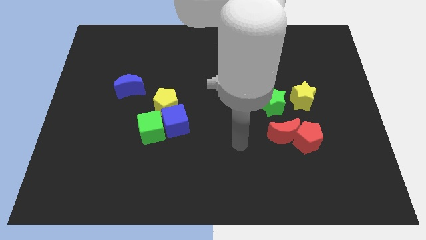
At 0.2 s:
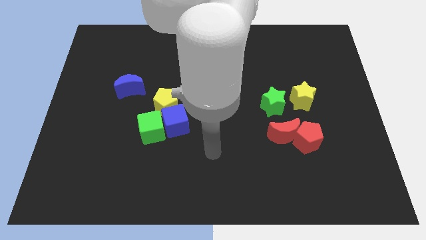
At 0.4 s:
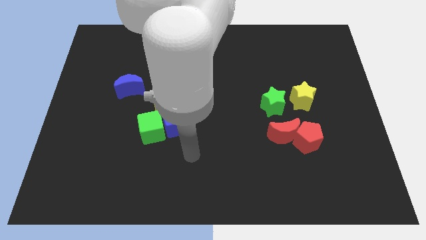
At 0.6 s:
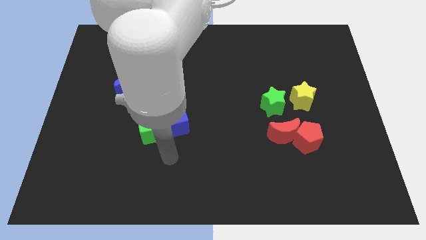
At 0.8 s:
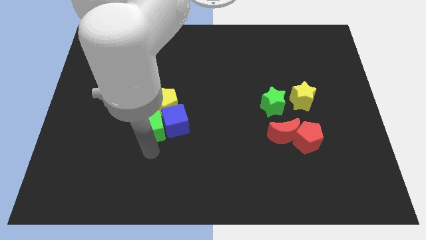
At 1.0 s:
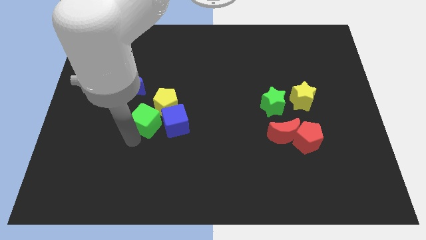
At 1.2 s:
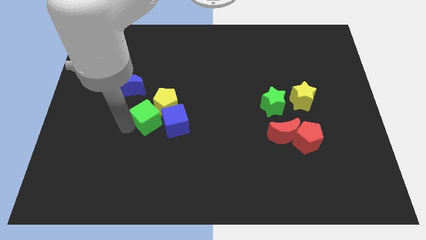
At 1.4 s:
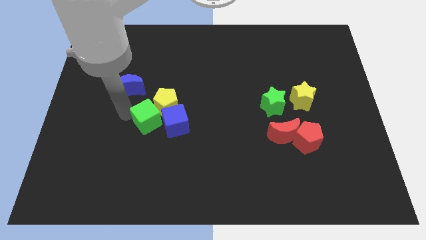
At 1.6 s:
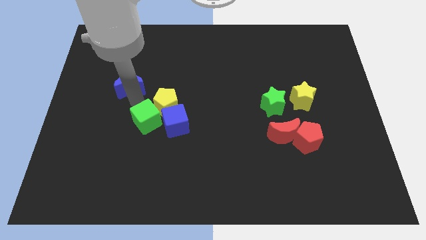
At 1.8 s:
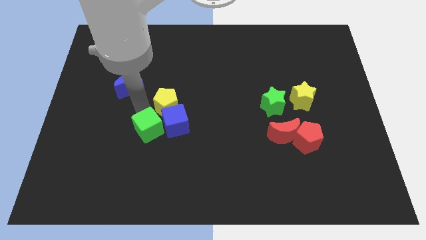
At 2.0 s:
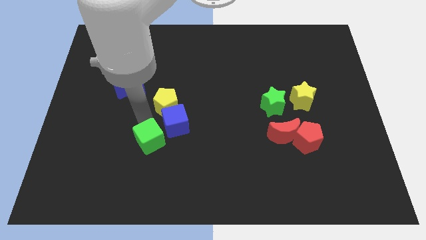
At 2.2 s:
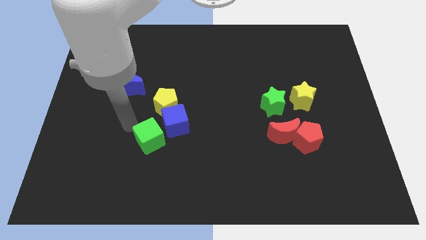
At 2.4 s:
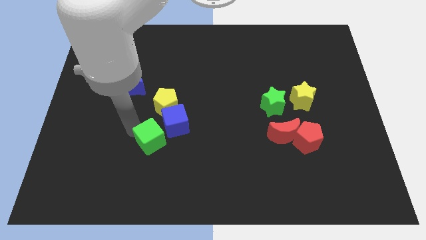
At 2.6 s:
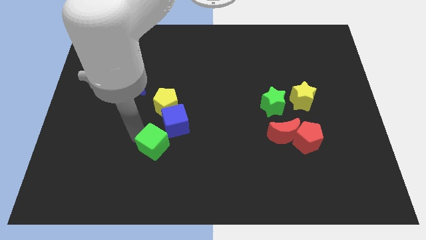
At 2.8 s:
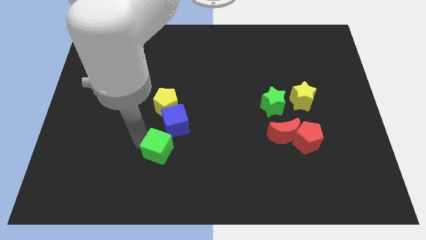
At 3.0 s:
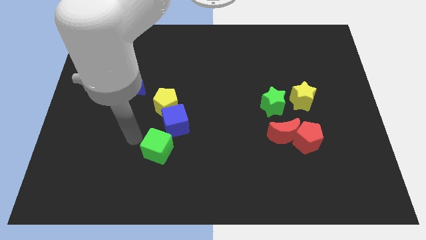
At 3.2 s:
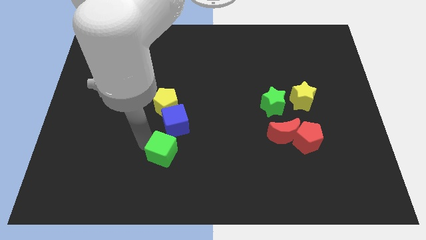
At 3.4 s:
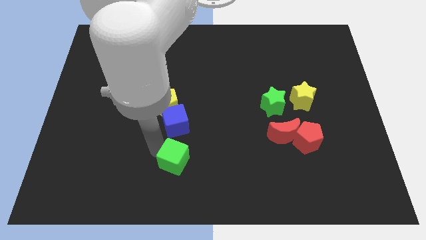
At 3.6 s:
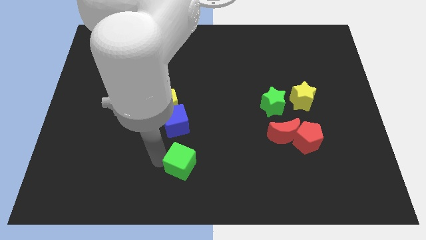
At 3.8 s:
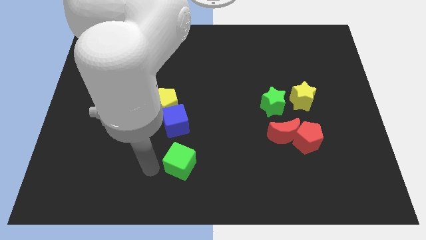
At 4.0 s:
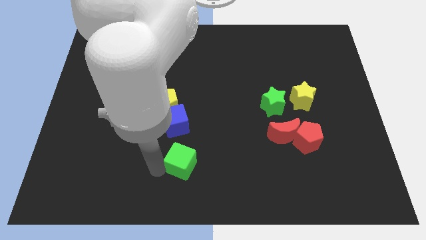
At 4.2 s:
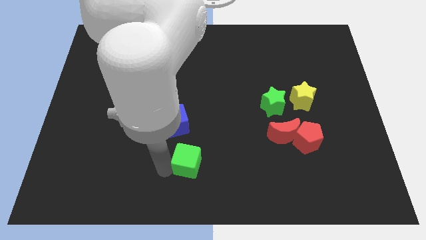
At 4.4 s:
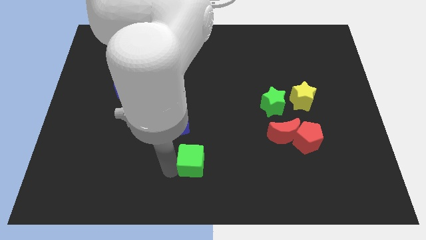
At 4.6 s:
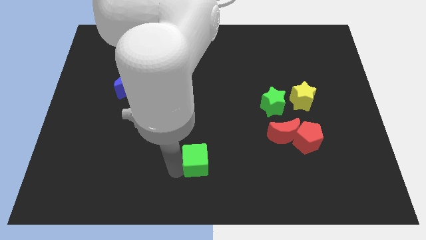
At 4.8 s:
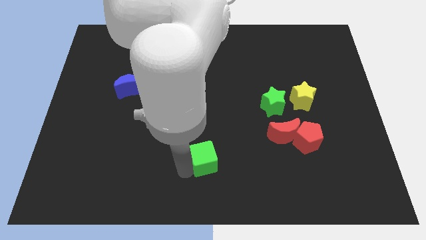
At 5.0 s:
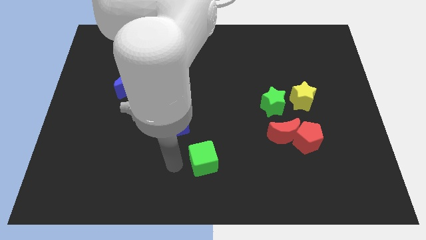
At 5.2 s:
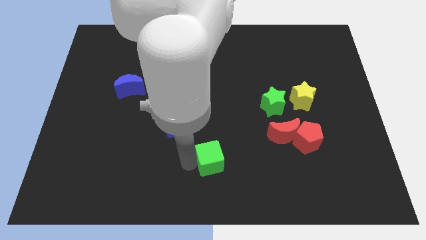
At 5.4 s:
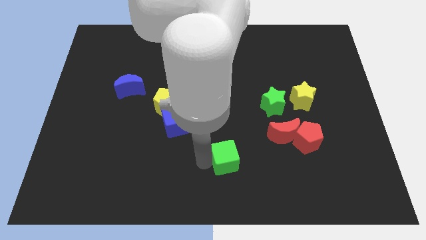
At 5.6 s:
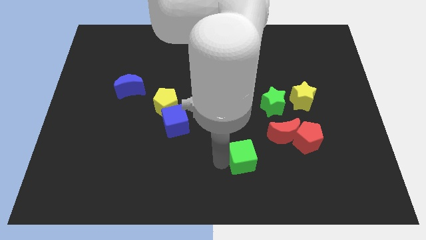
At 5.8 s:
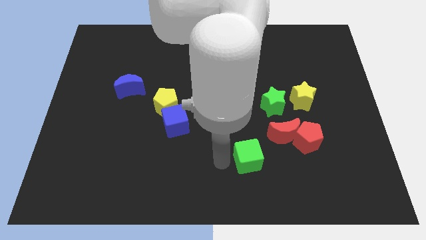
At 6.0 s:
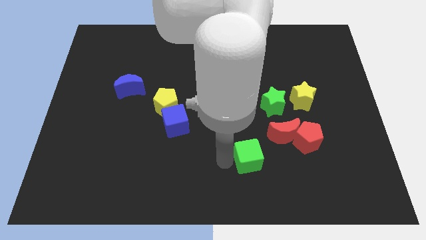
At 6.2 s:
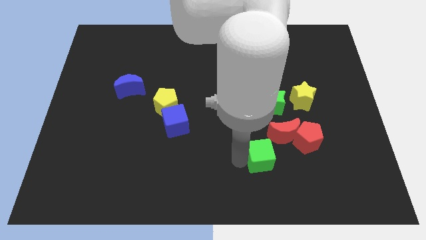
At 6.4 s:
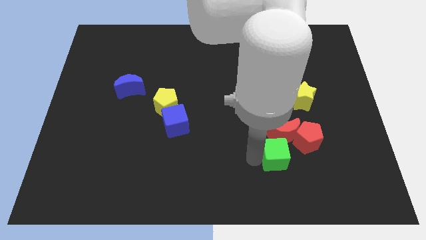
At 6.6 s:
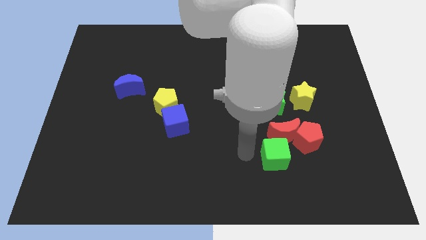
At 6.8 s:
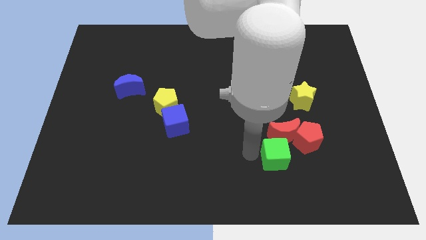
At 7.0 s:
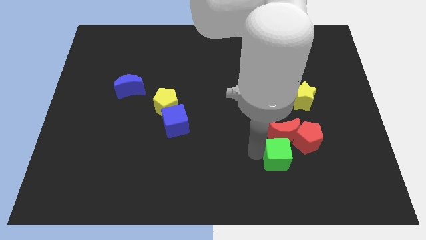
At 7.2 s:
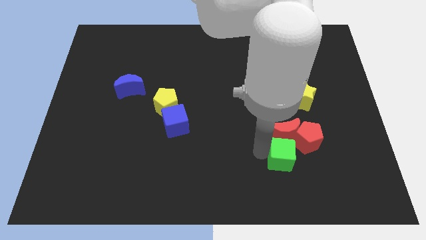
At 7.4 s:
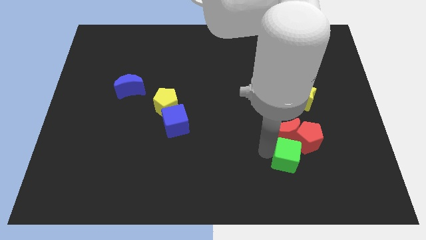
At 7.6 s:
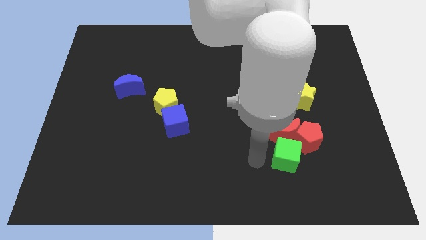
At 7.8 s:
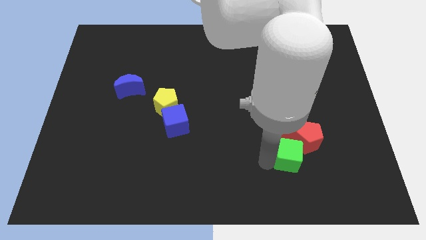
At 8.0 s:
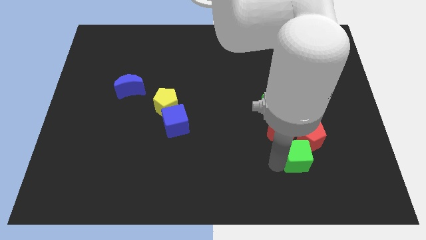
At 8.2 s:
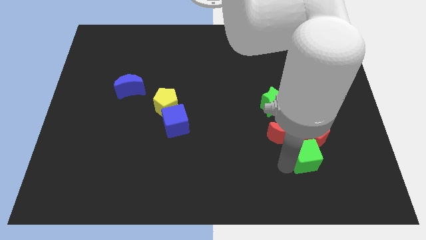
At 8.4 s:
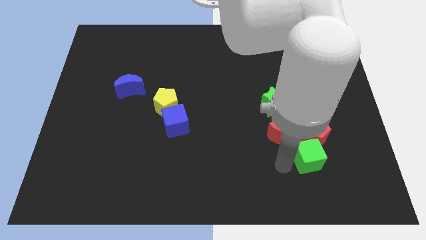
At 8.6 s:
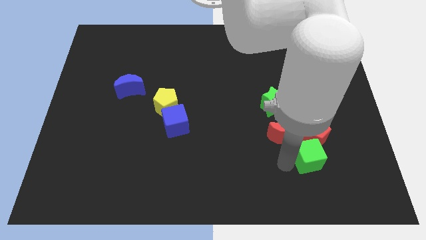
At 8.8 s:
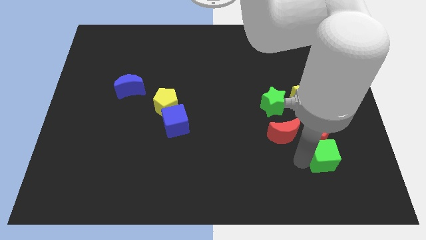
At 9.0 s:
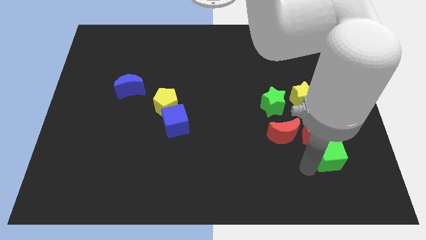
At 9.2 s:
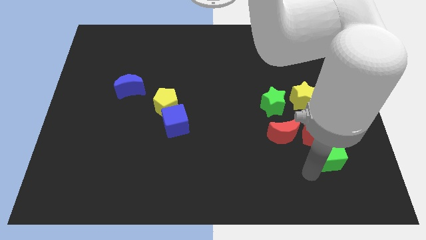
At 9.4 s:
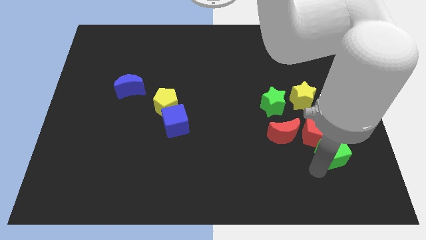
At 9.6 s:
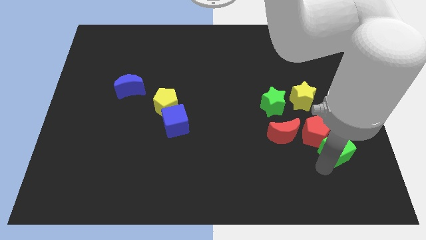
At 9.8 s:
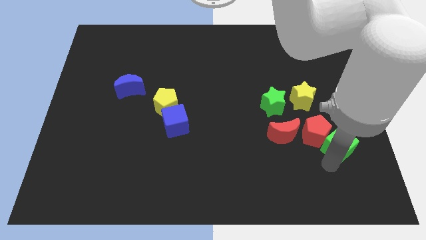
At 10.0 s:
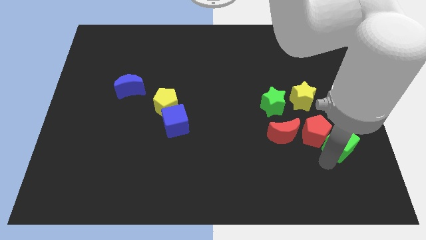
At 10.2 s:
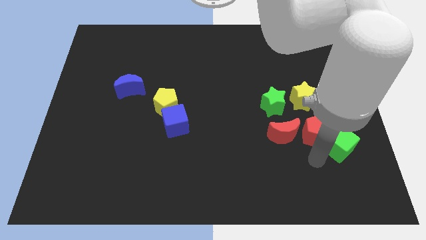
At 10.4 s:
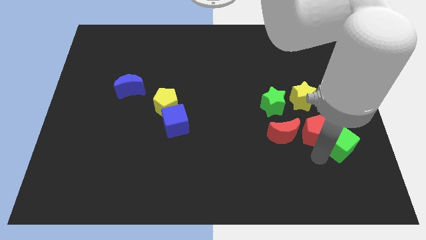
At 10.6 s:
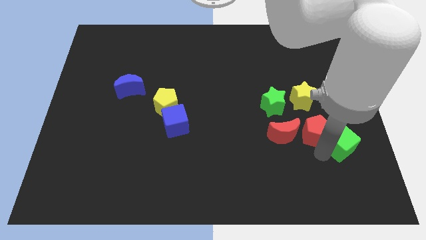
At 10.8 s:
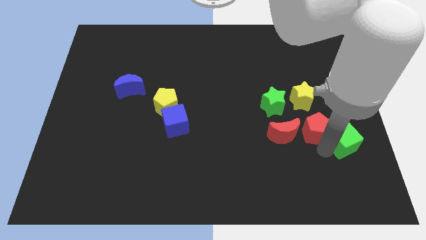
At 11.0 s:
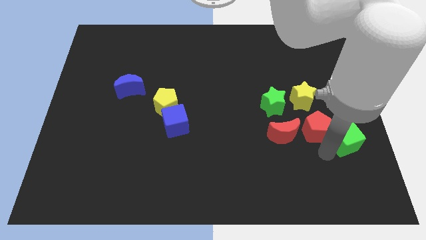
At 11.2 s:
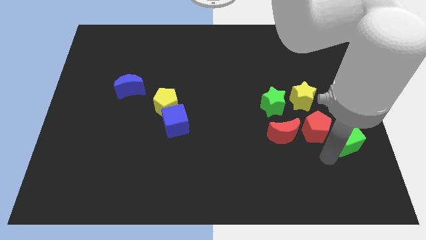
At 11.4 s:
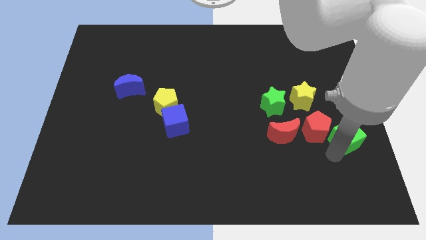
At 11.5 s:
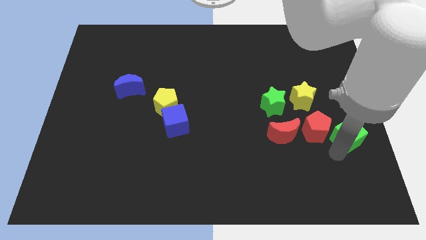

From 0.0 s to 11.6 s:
push the green cube to the right side
